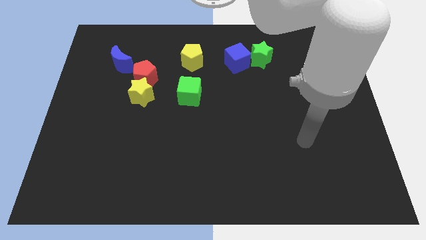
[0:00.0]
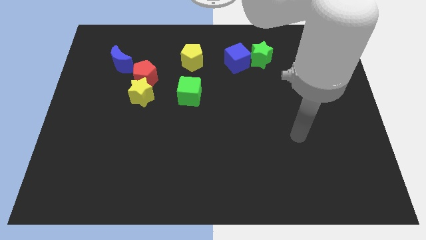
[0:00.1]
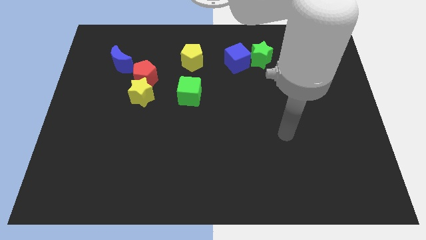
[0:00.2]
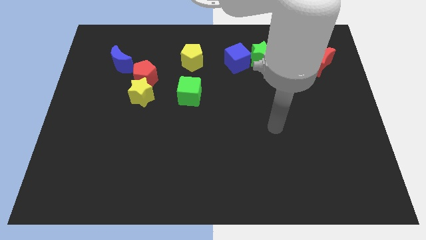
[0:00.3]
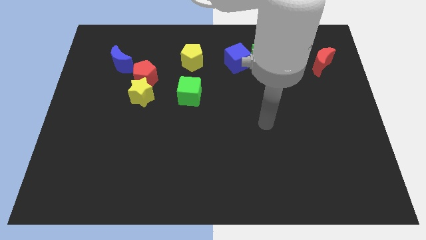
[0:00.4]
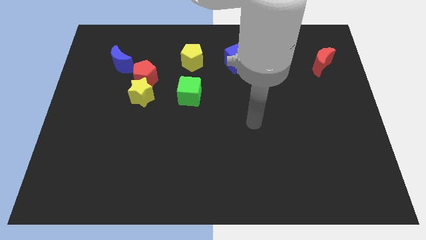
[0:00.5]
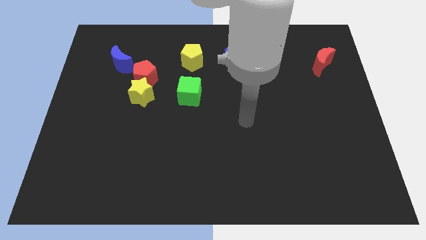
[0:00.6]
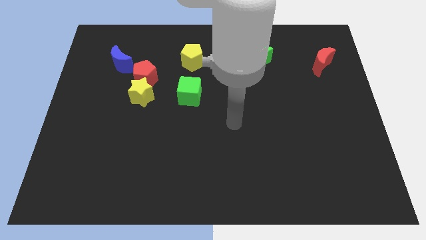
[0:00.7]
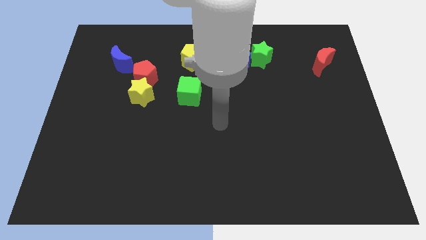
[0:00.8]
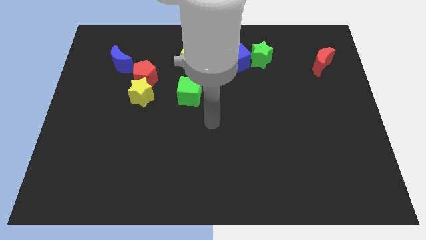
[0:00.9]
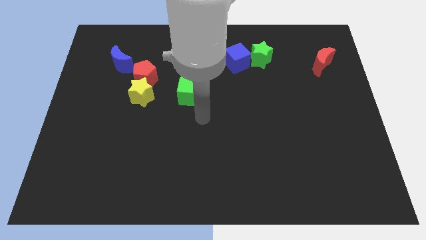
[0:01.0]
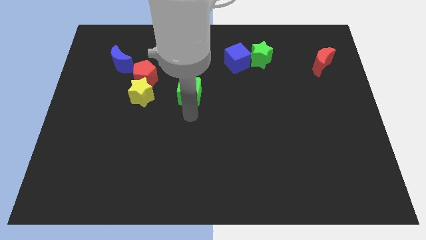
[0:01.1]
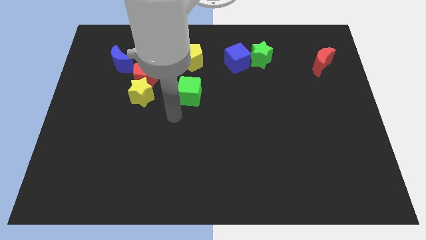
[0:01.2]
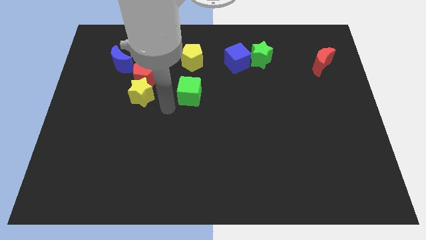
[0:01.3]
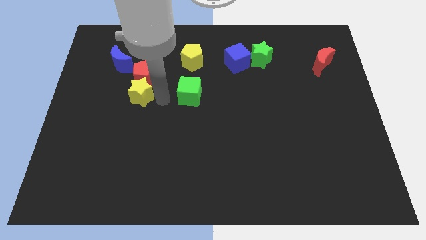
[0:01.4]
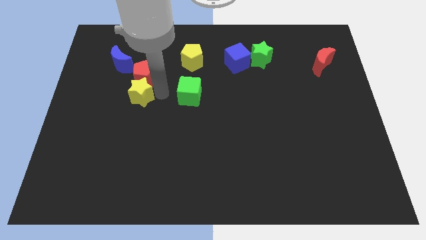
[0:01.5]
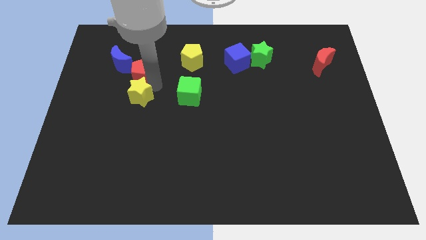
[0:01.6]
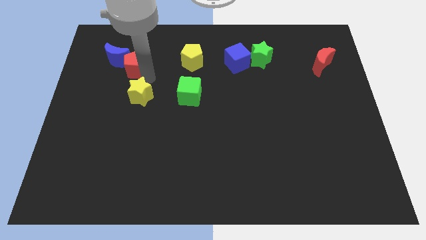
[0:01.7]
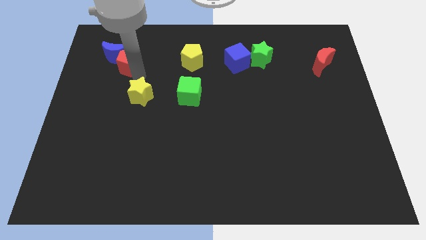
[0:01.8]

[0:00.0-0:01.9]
pull the yellow star apart from the red pentagon

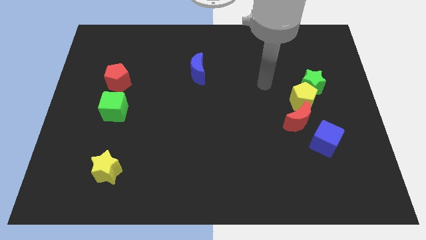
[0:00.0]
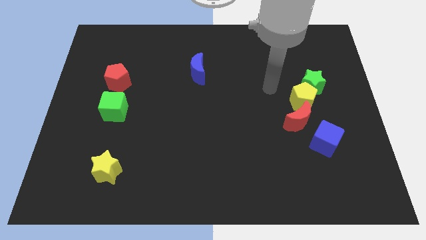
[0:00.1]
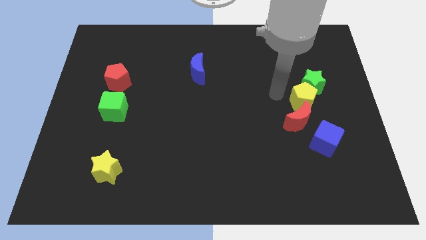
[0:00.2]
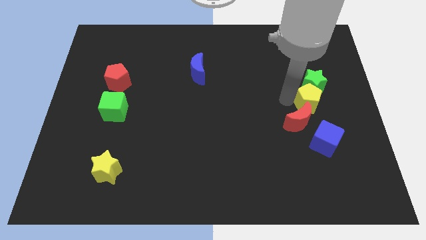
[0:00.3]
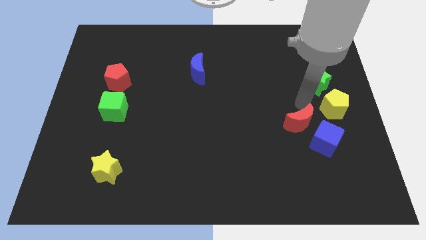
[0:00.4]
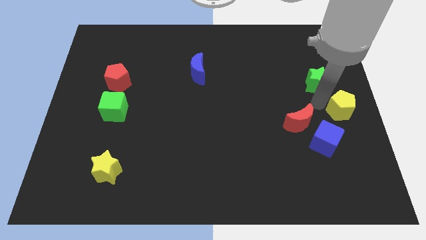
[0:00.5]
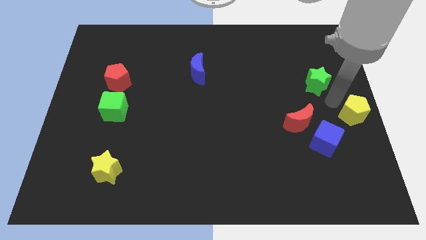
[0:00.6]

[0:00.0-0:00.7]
pull the green star apart from the yellow pentagon

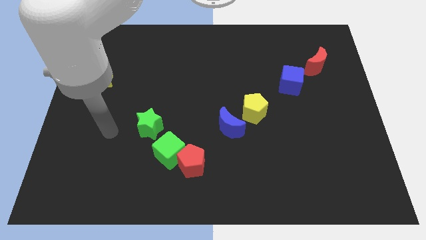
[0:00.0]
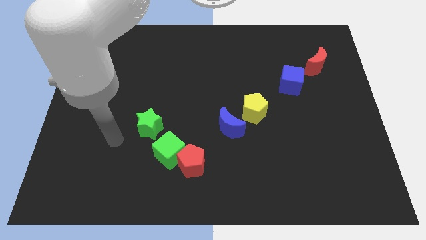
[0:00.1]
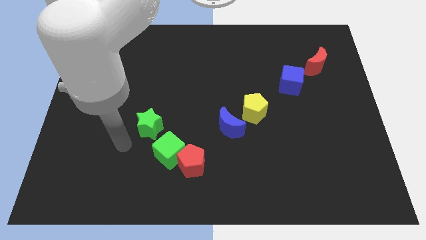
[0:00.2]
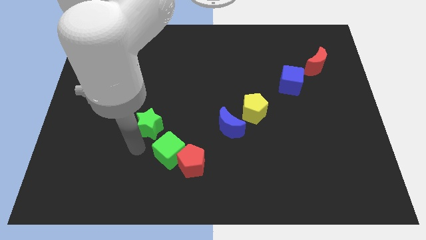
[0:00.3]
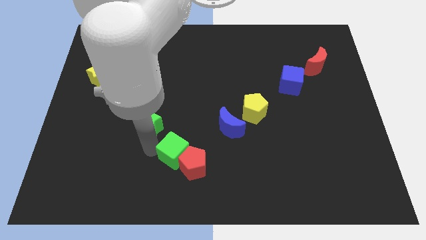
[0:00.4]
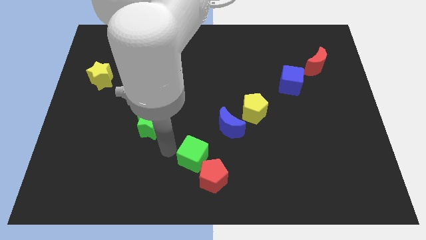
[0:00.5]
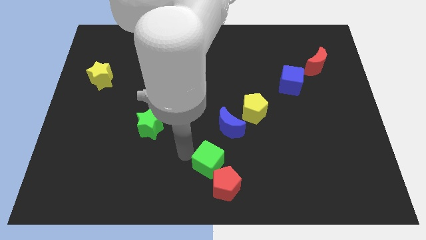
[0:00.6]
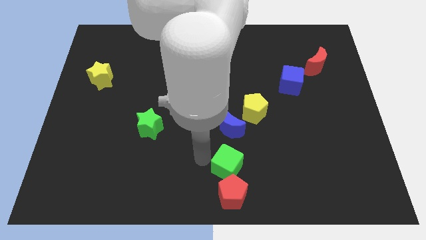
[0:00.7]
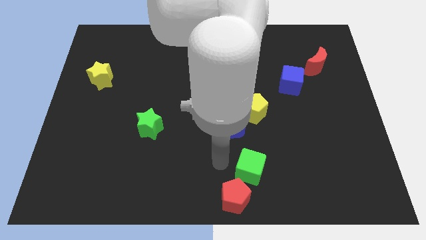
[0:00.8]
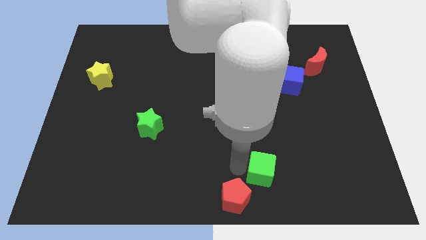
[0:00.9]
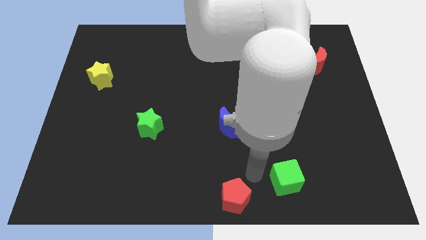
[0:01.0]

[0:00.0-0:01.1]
separate the red pentagon from the green cube

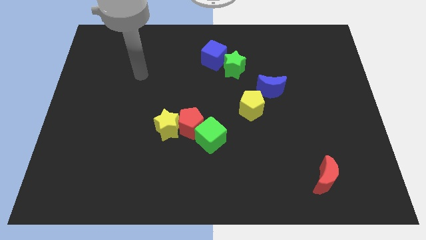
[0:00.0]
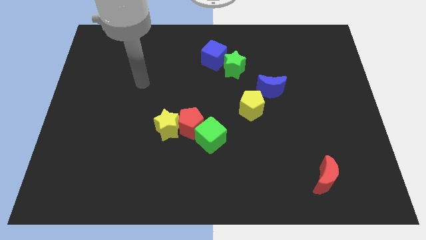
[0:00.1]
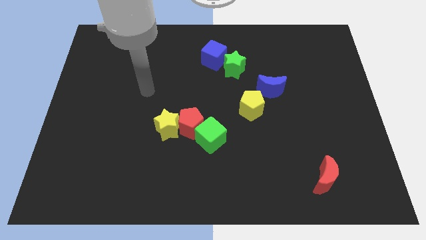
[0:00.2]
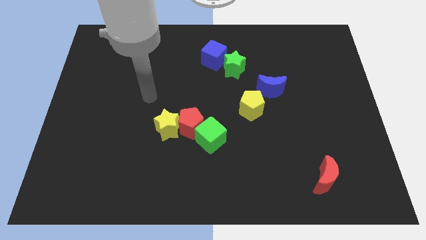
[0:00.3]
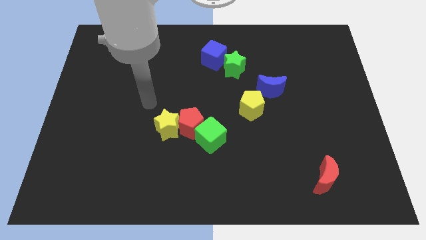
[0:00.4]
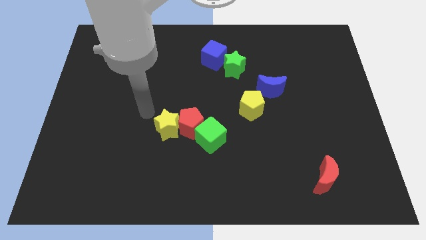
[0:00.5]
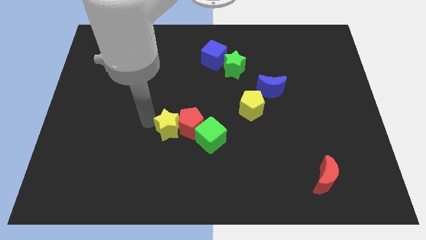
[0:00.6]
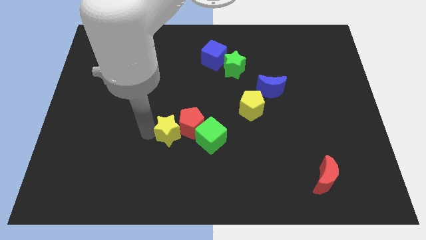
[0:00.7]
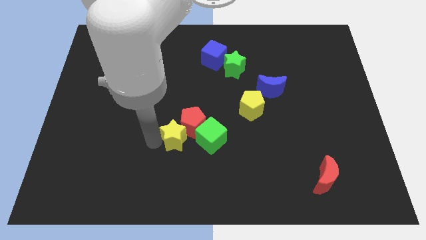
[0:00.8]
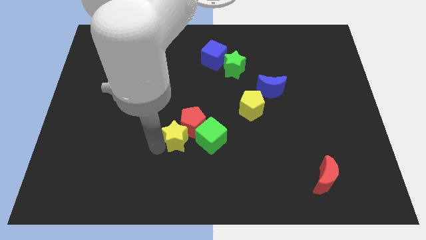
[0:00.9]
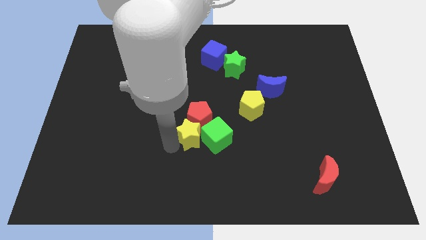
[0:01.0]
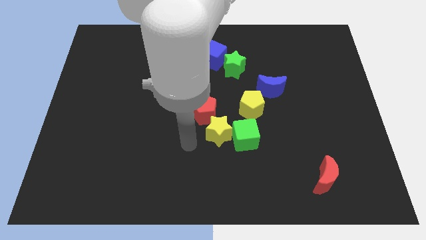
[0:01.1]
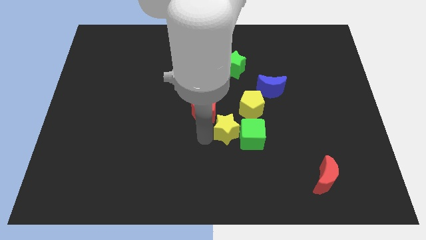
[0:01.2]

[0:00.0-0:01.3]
move the red pentagon away from the green cube and yellow star

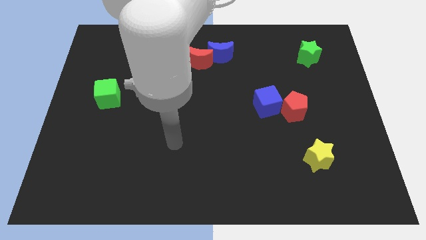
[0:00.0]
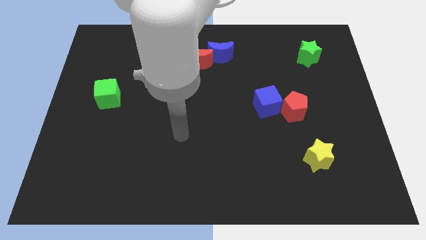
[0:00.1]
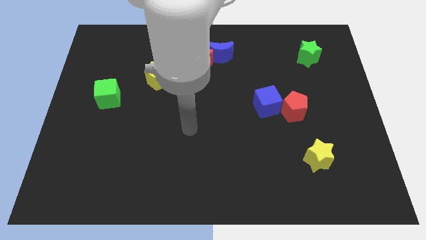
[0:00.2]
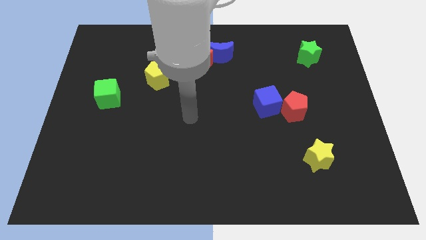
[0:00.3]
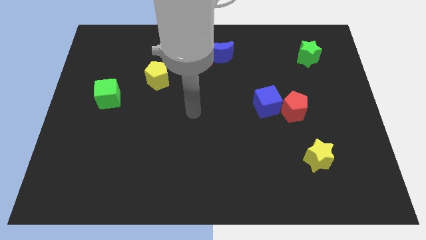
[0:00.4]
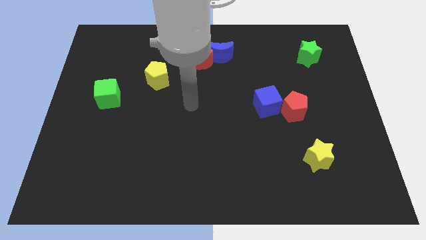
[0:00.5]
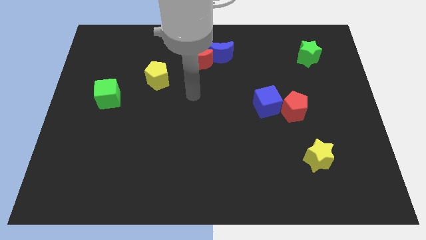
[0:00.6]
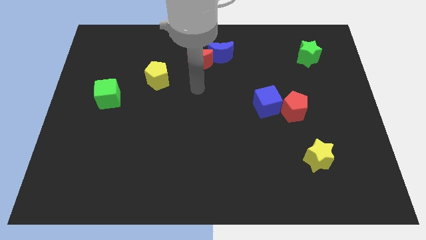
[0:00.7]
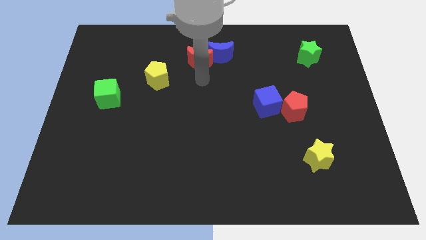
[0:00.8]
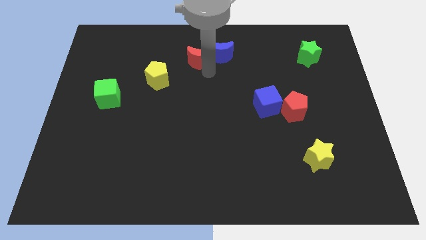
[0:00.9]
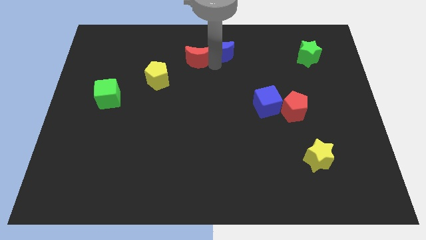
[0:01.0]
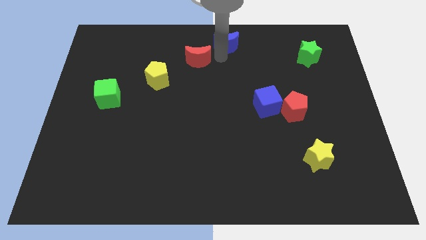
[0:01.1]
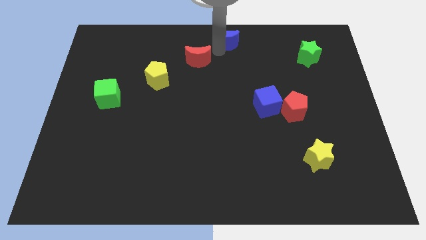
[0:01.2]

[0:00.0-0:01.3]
separate the red moon from the blue moon

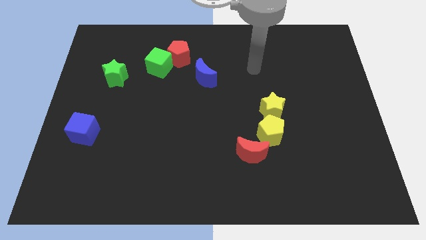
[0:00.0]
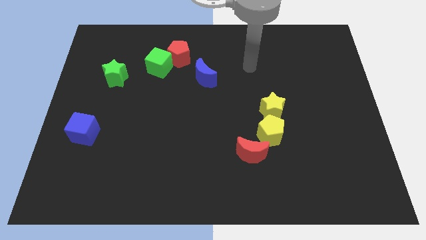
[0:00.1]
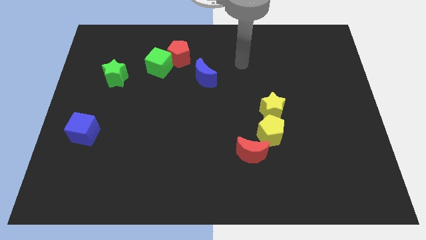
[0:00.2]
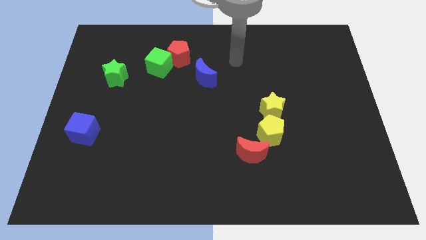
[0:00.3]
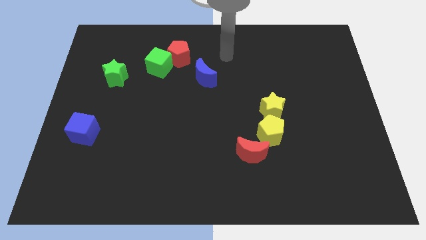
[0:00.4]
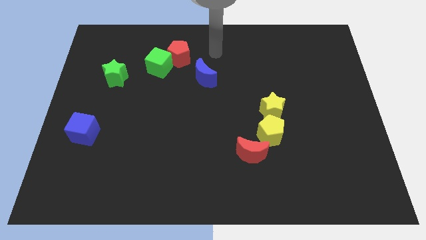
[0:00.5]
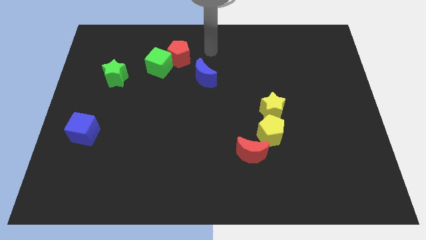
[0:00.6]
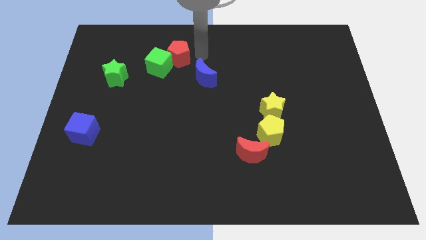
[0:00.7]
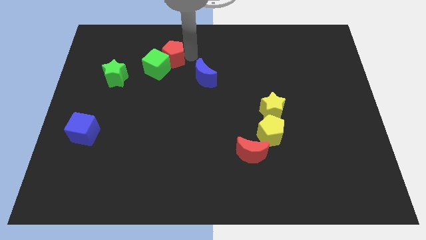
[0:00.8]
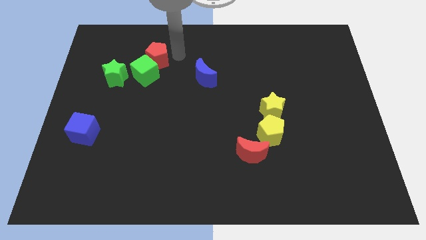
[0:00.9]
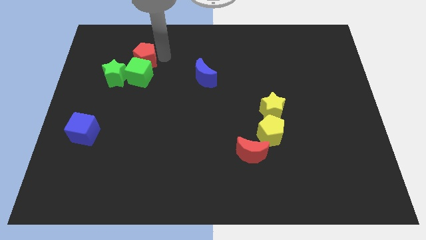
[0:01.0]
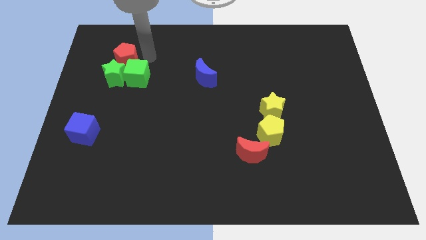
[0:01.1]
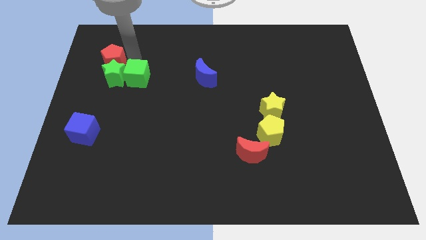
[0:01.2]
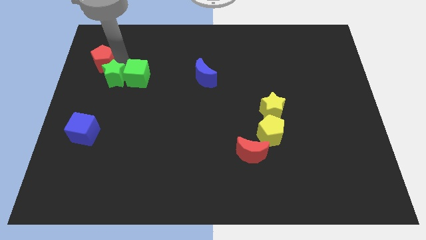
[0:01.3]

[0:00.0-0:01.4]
separate the green cube from the red pentagon

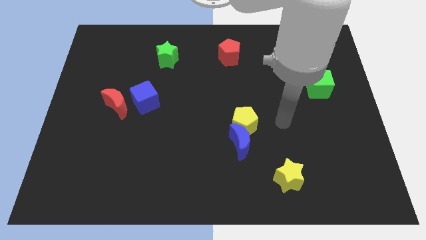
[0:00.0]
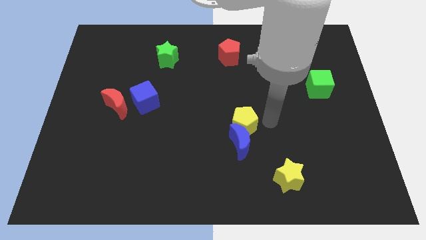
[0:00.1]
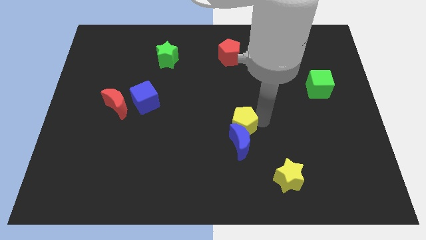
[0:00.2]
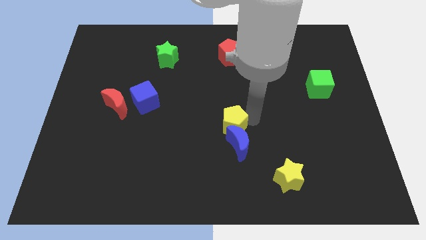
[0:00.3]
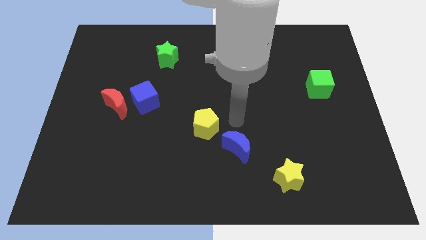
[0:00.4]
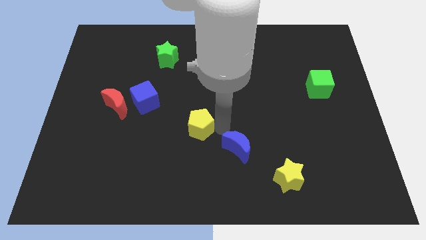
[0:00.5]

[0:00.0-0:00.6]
pull the blue moon apart from the yellow pentagon

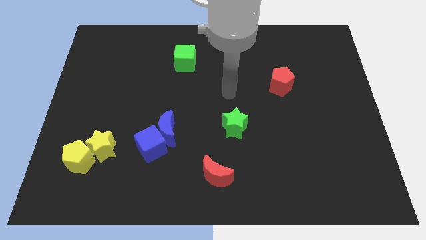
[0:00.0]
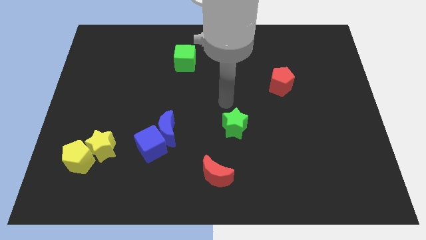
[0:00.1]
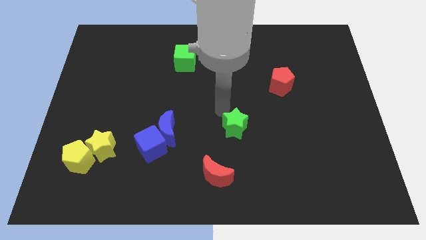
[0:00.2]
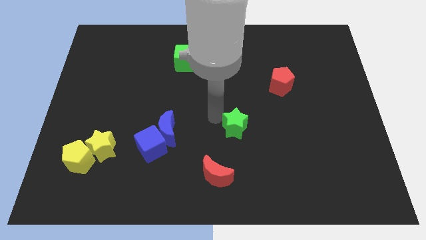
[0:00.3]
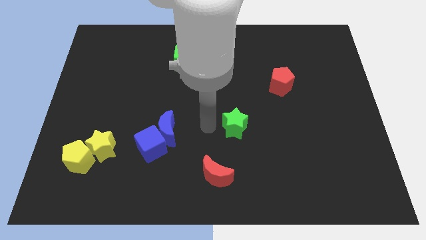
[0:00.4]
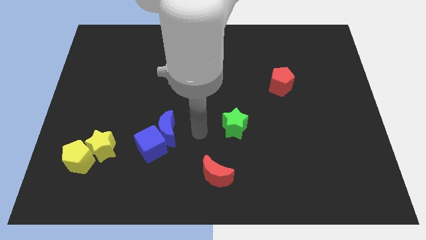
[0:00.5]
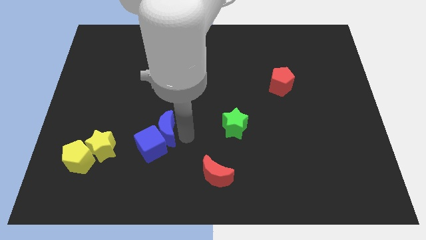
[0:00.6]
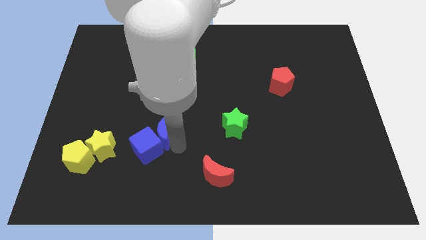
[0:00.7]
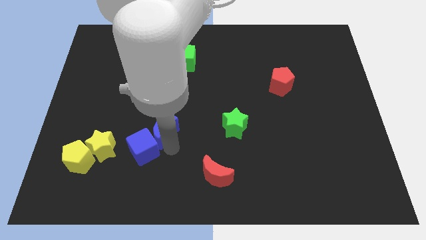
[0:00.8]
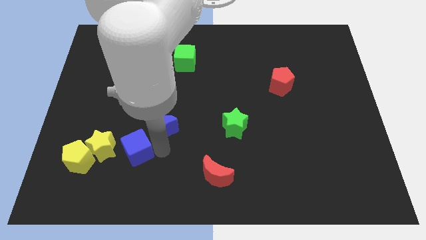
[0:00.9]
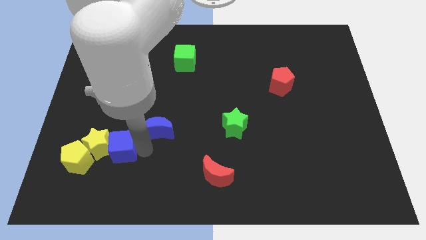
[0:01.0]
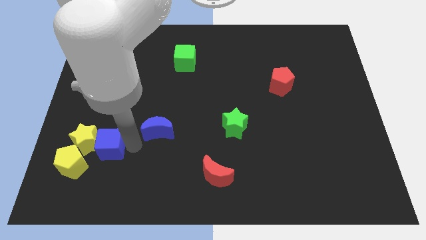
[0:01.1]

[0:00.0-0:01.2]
separate the blue moon from the blue cube
